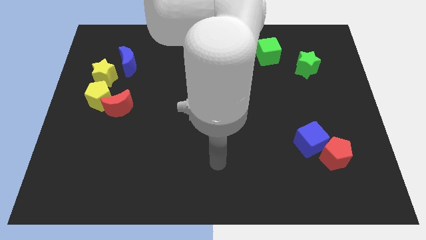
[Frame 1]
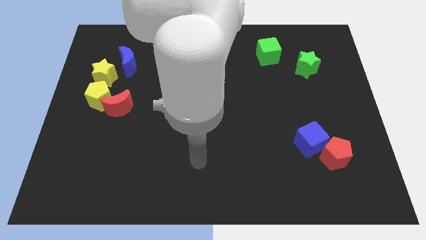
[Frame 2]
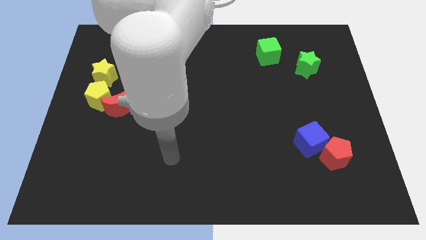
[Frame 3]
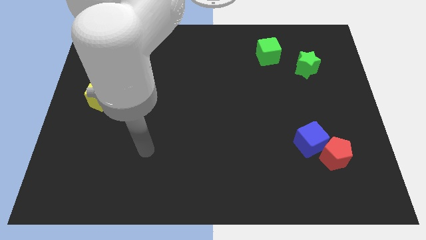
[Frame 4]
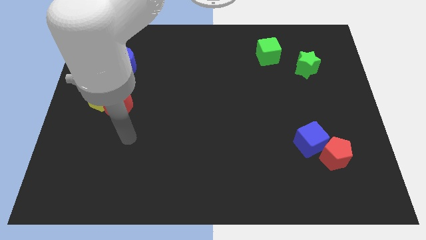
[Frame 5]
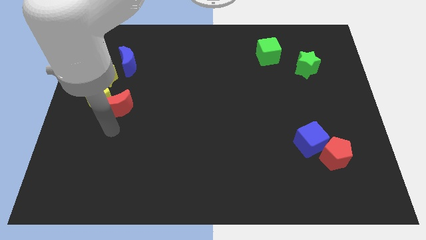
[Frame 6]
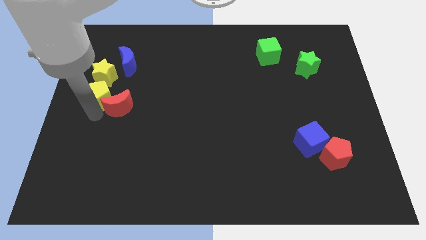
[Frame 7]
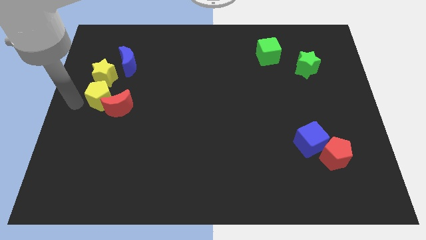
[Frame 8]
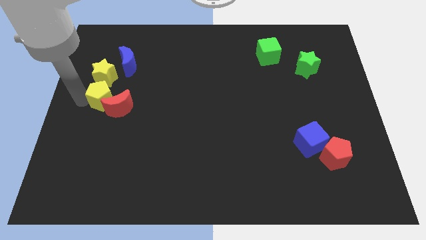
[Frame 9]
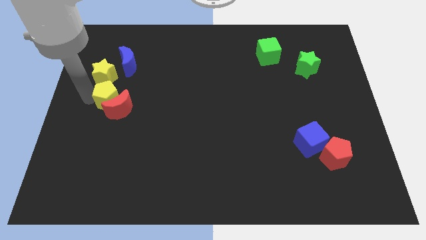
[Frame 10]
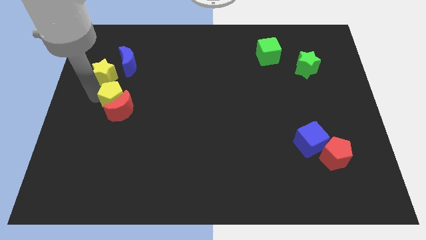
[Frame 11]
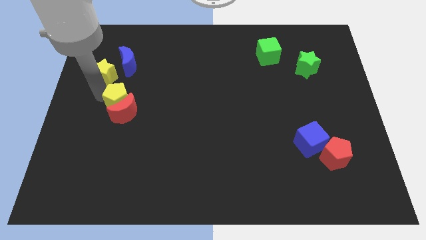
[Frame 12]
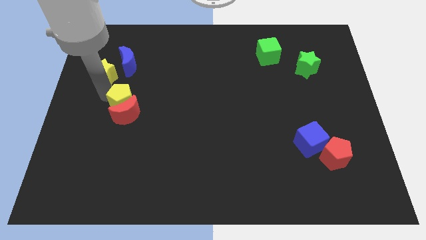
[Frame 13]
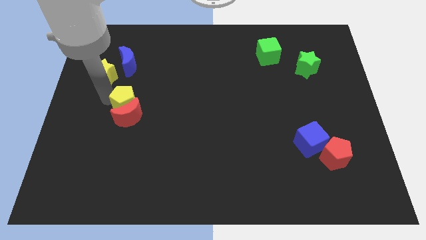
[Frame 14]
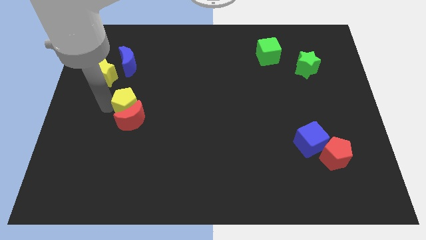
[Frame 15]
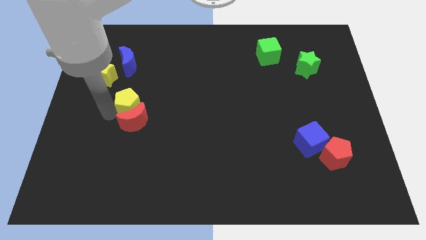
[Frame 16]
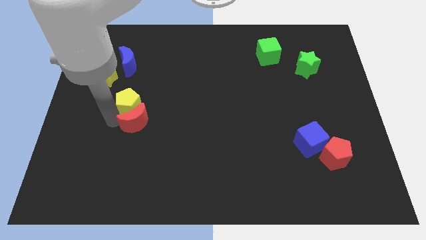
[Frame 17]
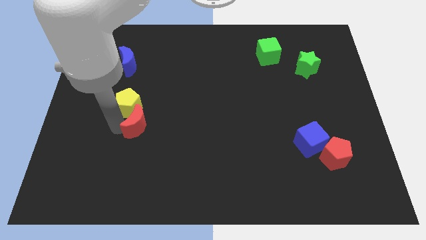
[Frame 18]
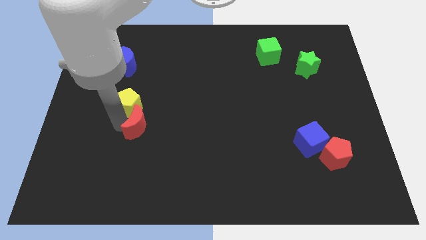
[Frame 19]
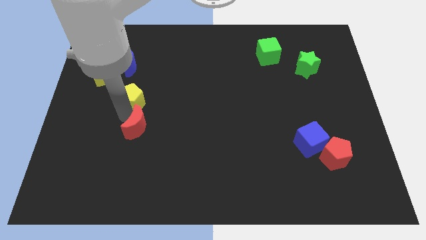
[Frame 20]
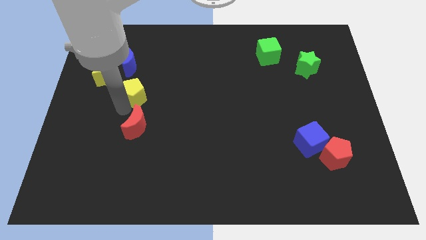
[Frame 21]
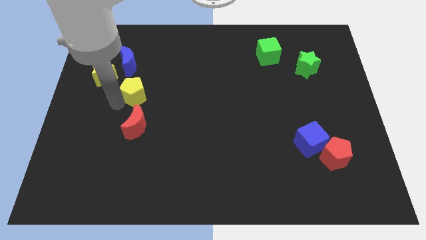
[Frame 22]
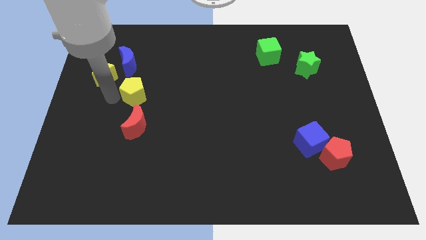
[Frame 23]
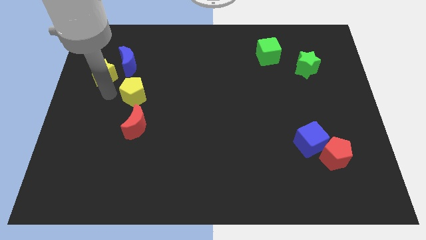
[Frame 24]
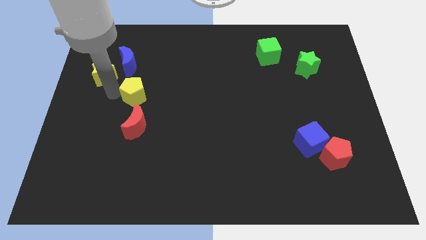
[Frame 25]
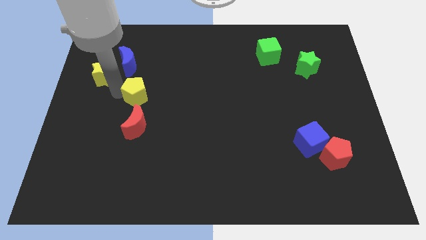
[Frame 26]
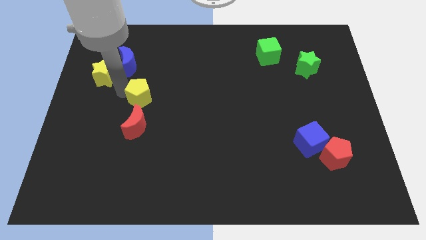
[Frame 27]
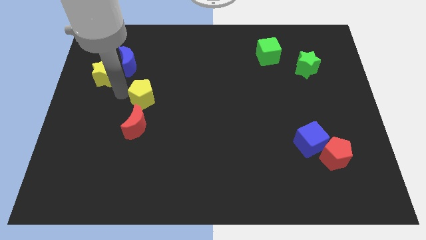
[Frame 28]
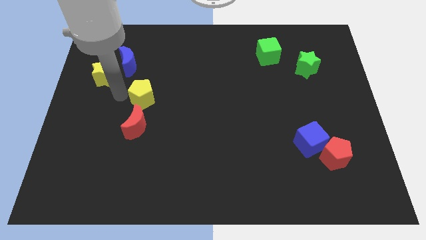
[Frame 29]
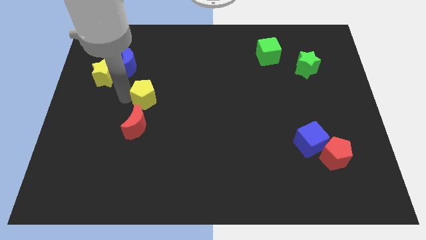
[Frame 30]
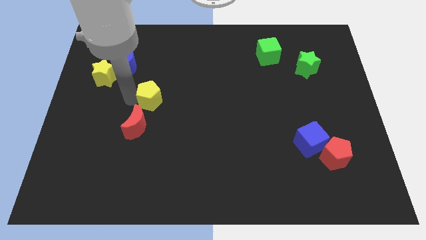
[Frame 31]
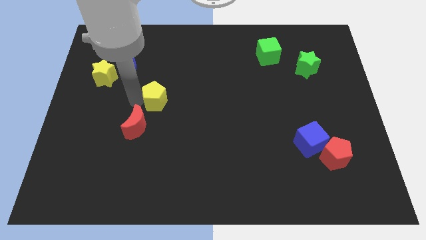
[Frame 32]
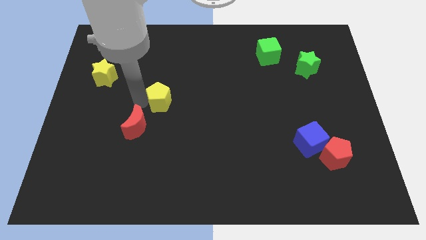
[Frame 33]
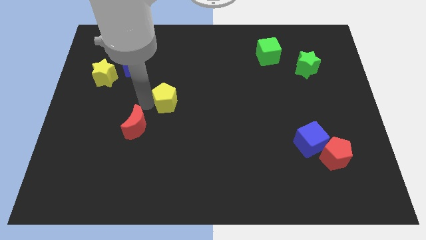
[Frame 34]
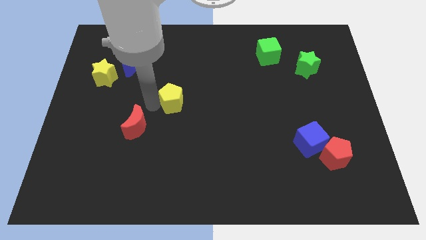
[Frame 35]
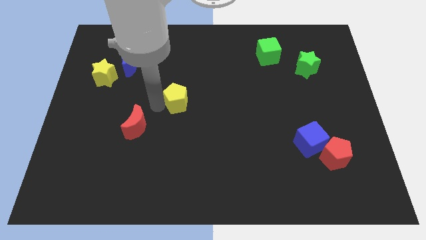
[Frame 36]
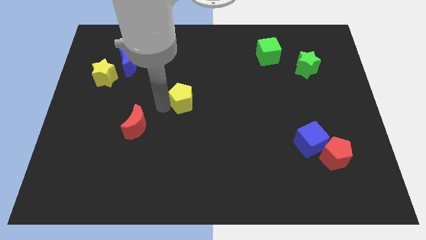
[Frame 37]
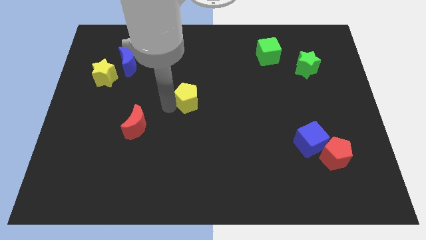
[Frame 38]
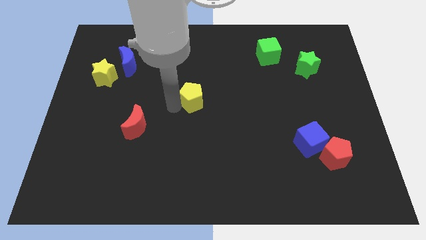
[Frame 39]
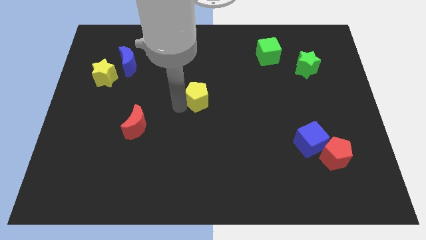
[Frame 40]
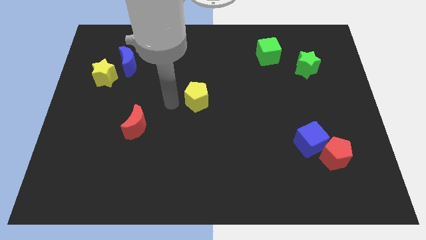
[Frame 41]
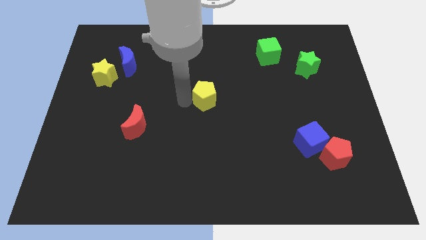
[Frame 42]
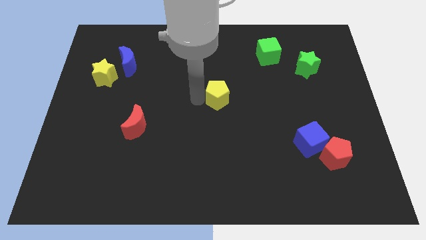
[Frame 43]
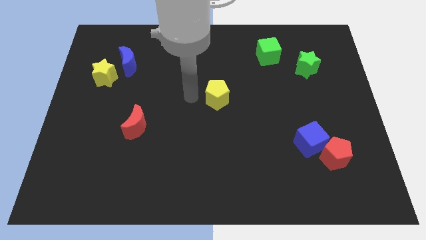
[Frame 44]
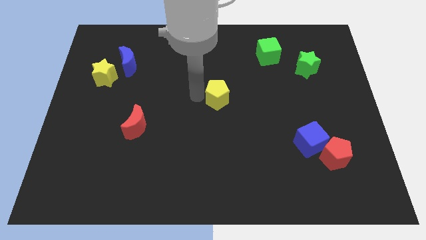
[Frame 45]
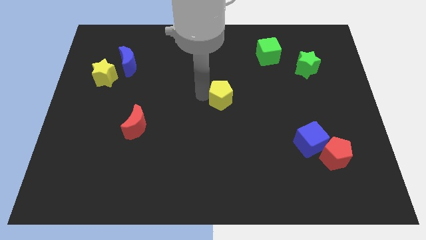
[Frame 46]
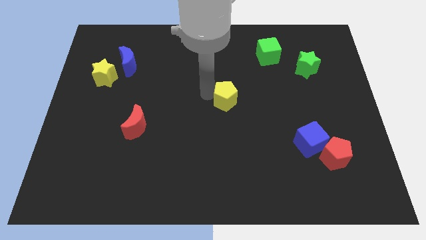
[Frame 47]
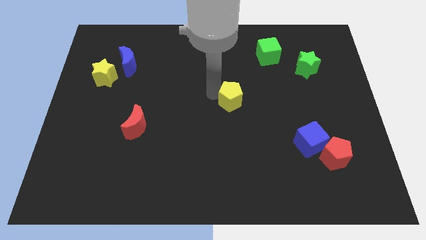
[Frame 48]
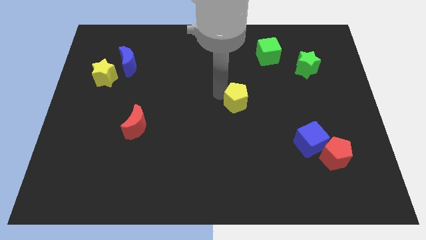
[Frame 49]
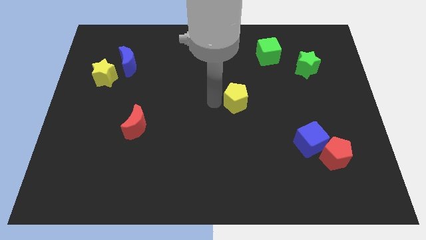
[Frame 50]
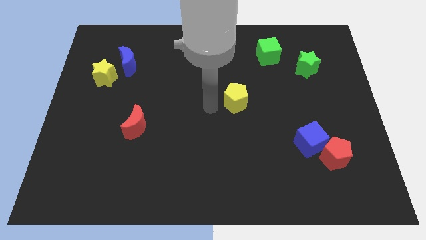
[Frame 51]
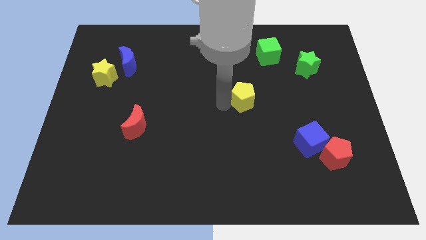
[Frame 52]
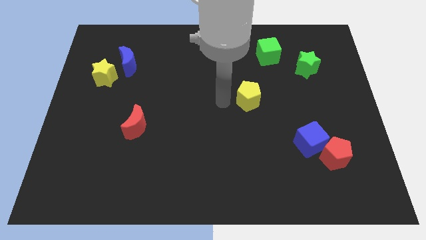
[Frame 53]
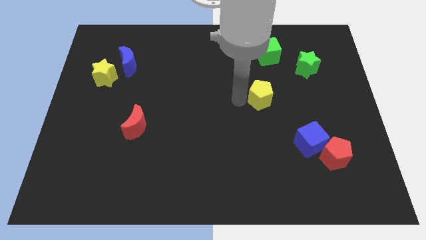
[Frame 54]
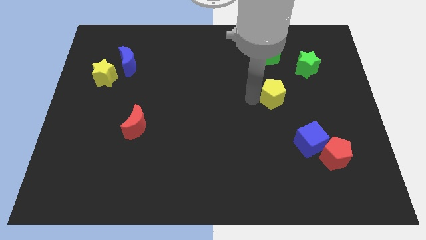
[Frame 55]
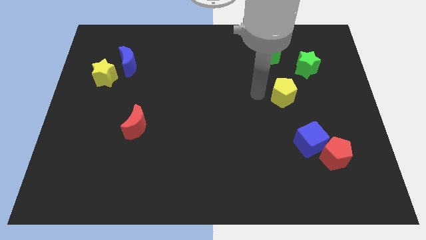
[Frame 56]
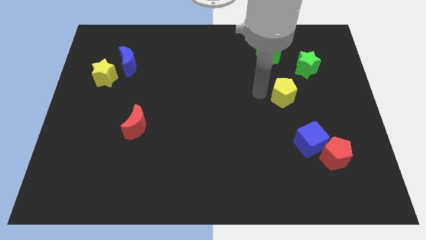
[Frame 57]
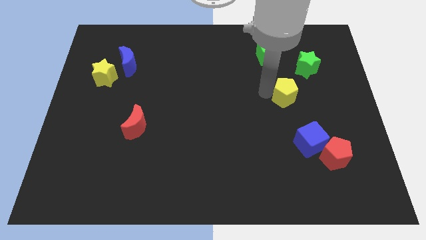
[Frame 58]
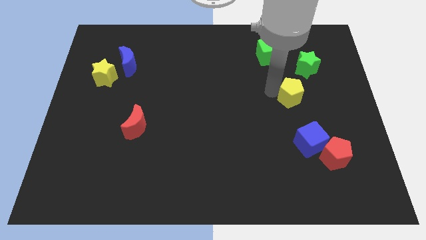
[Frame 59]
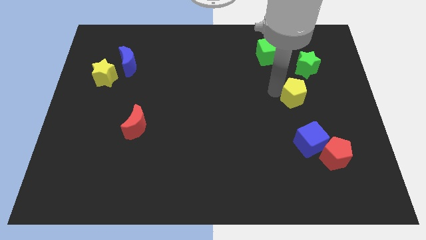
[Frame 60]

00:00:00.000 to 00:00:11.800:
slide the yellow pentagon to the bottom side of the green star

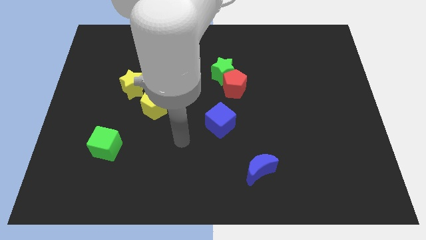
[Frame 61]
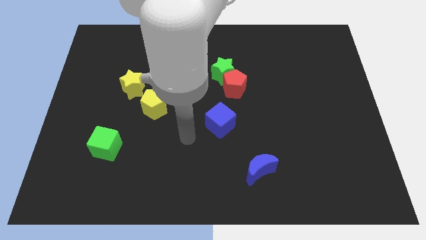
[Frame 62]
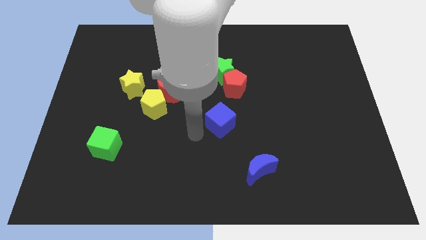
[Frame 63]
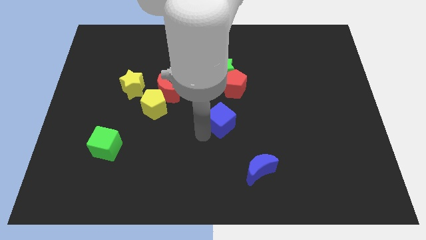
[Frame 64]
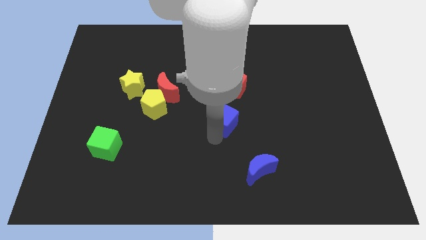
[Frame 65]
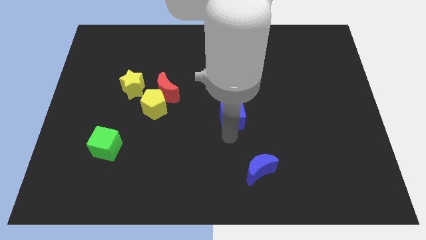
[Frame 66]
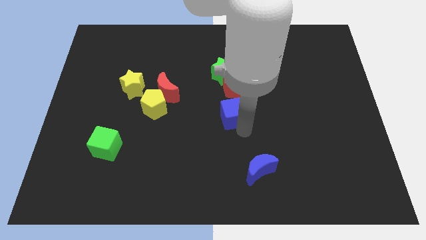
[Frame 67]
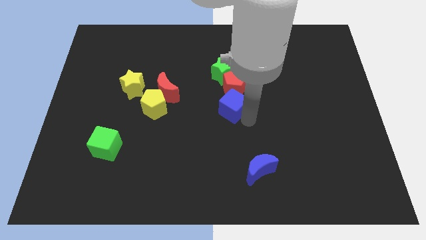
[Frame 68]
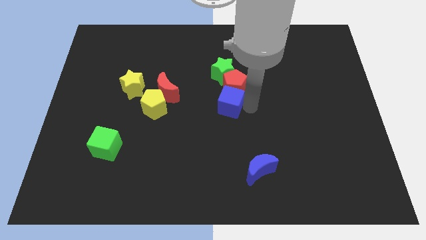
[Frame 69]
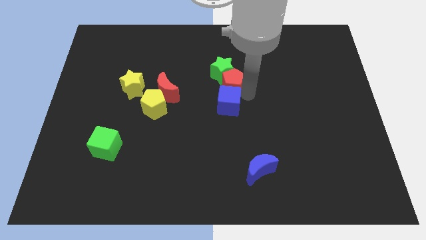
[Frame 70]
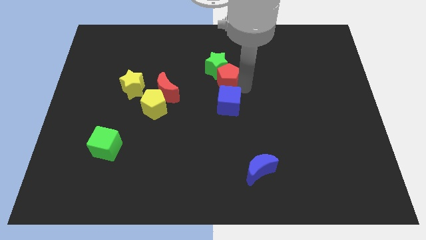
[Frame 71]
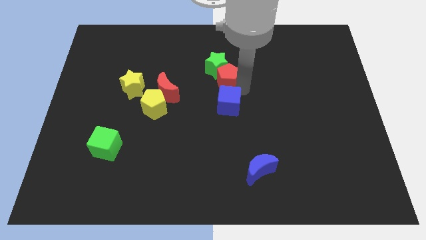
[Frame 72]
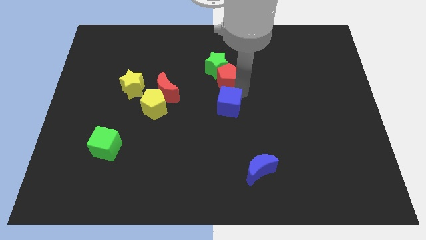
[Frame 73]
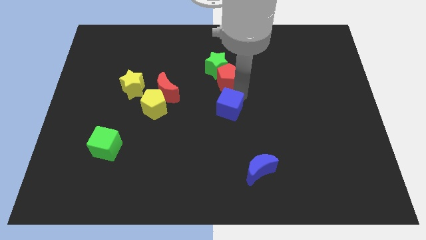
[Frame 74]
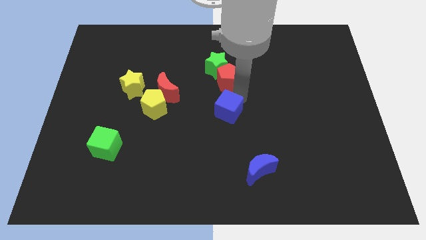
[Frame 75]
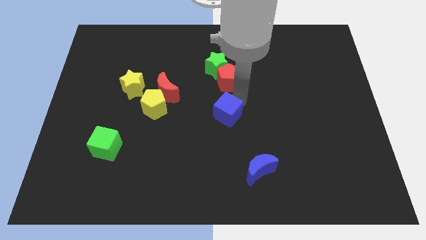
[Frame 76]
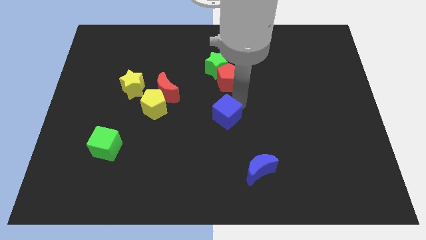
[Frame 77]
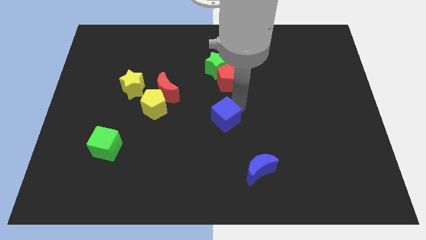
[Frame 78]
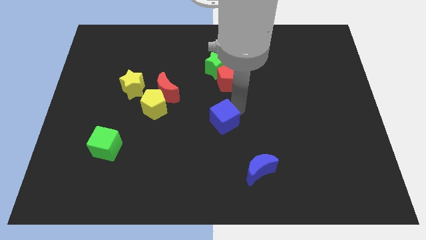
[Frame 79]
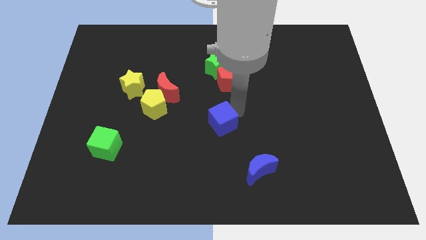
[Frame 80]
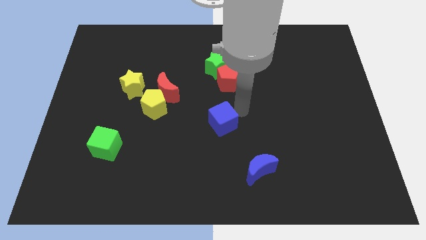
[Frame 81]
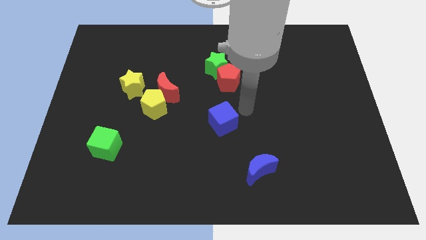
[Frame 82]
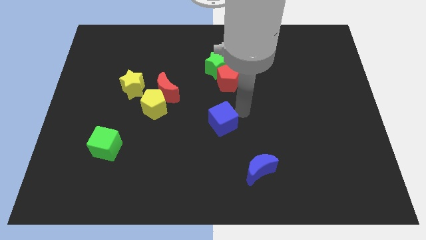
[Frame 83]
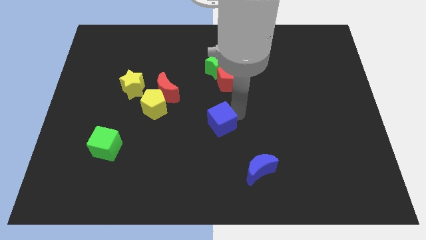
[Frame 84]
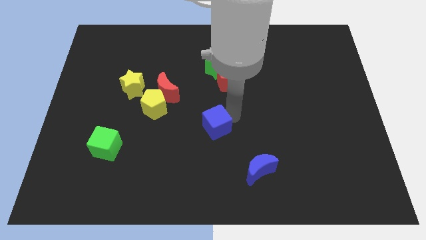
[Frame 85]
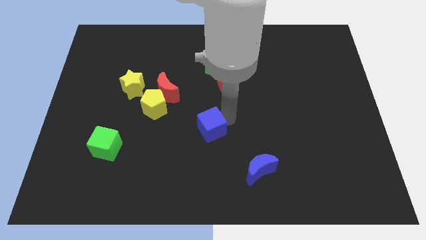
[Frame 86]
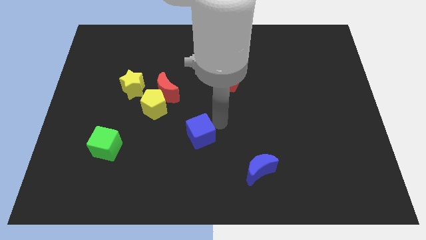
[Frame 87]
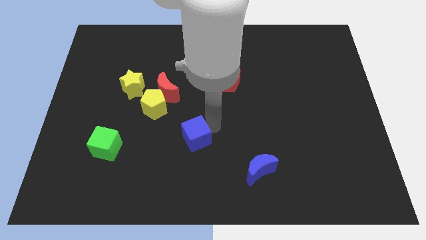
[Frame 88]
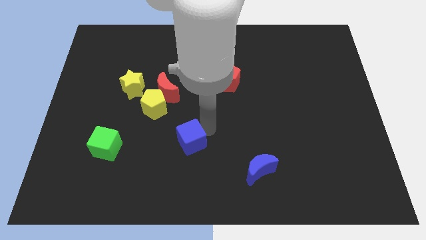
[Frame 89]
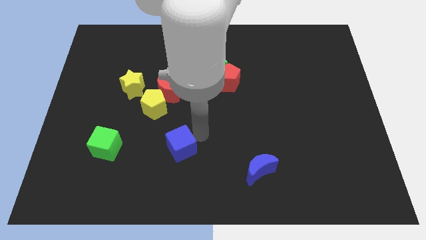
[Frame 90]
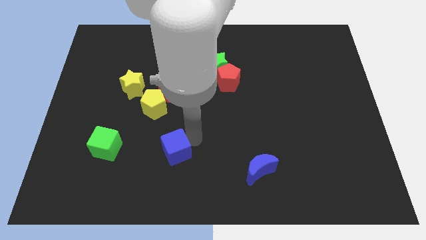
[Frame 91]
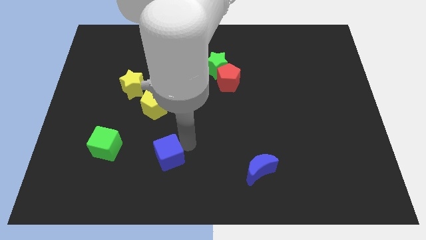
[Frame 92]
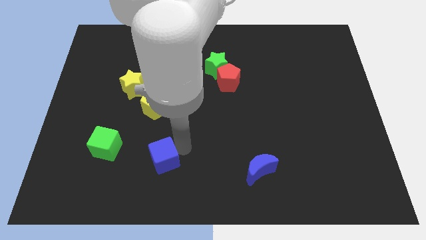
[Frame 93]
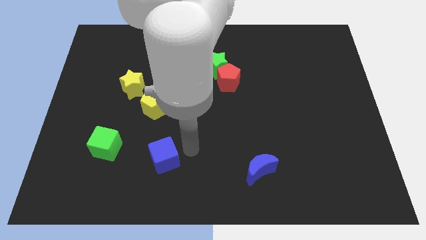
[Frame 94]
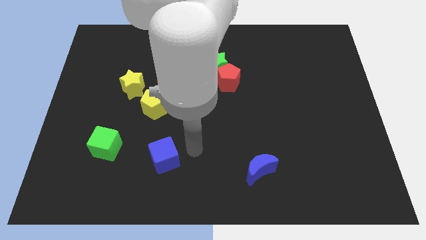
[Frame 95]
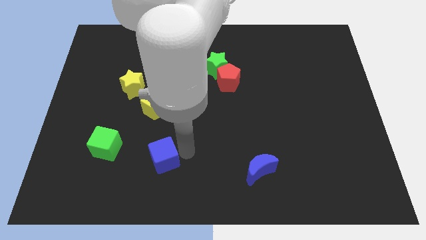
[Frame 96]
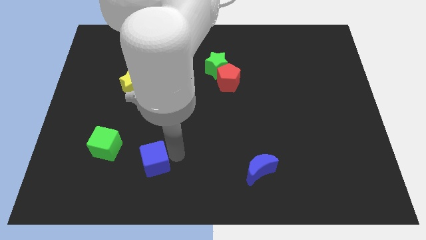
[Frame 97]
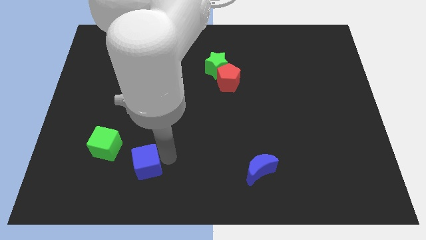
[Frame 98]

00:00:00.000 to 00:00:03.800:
move the blue cube to the bottom right of the green cube
